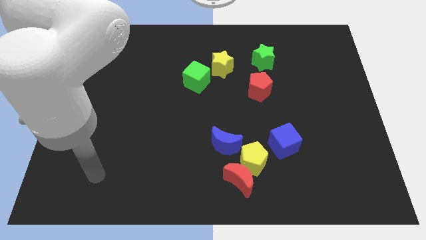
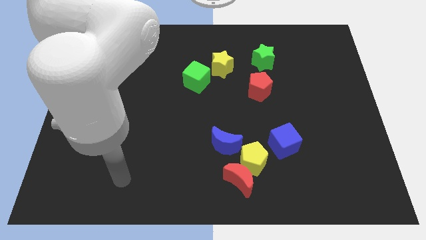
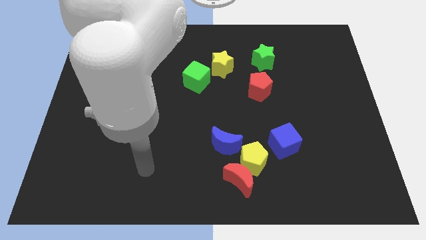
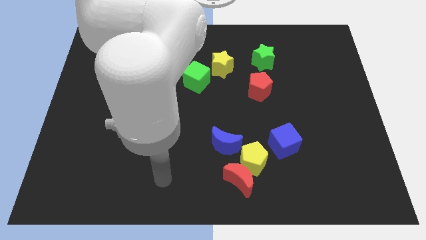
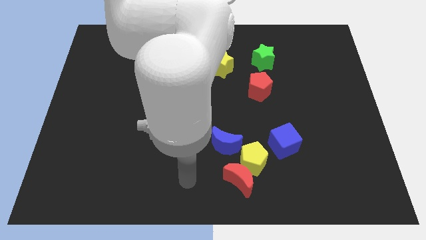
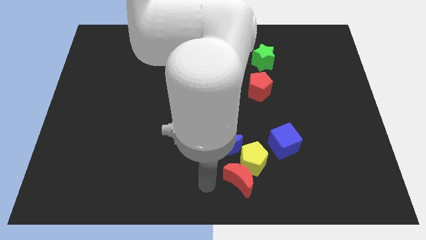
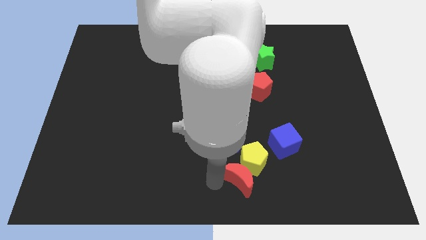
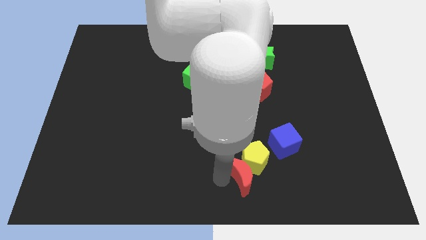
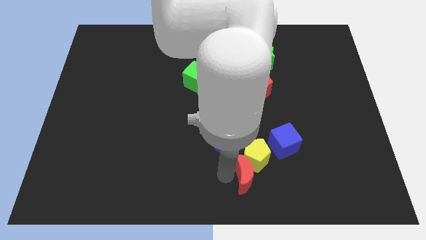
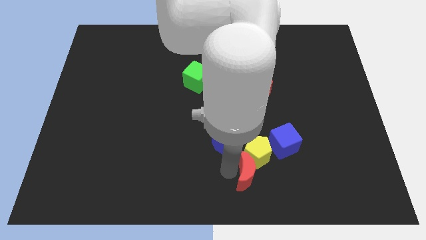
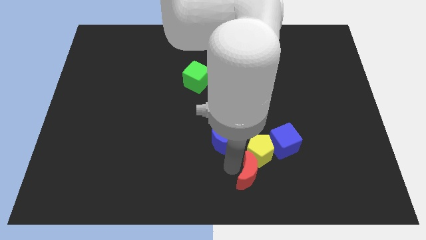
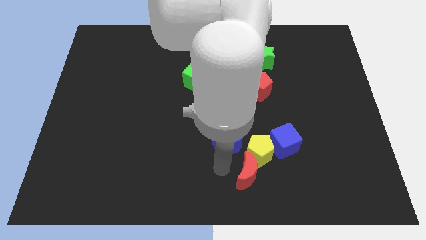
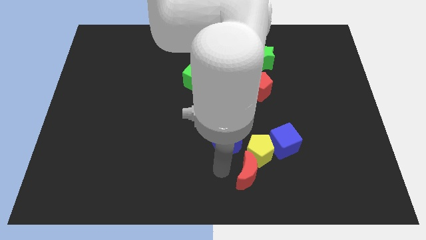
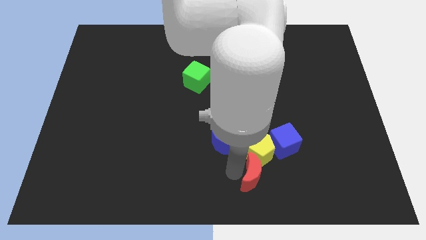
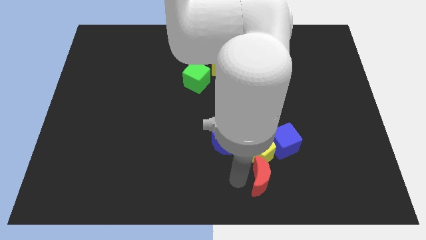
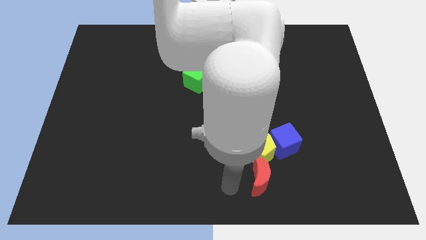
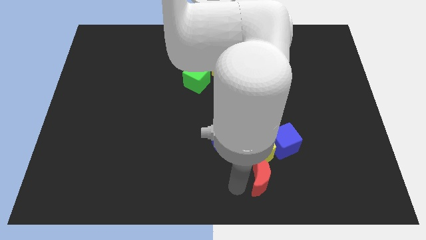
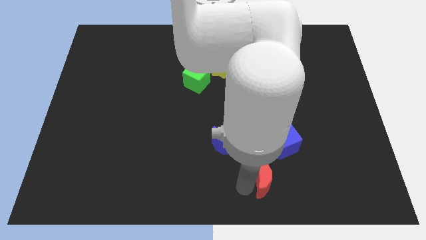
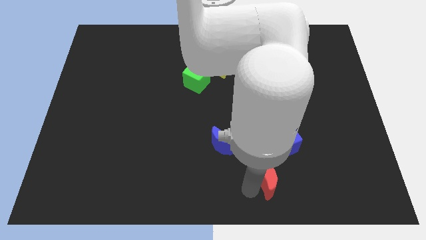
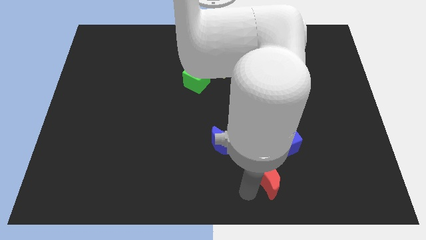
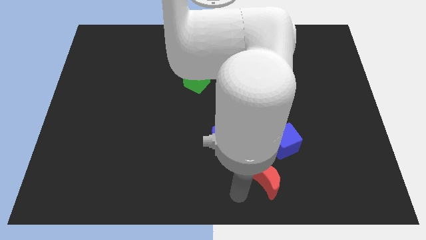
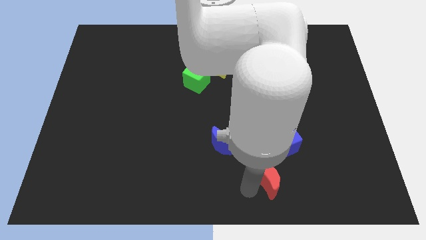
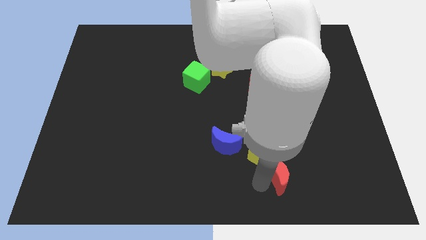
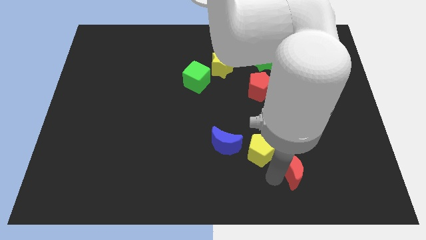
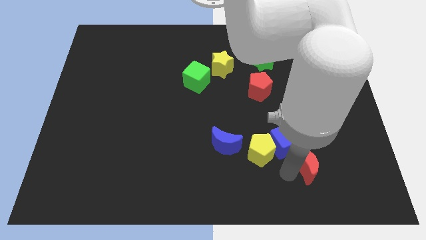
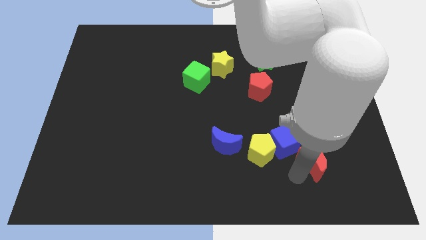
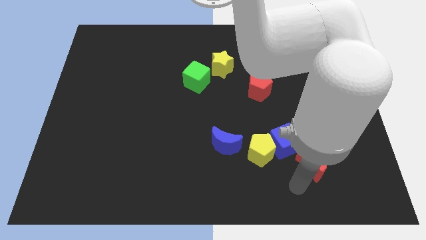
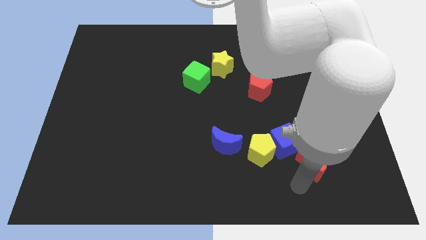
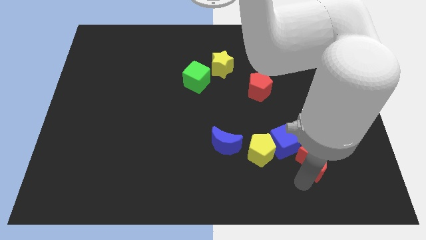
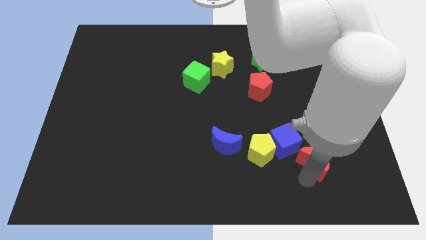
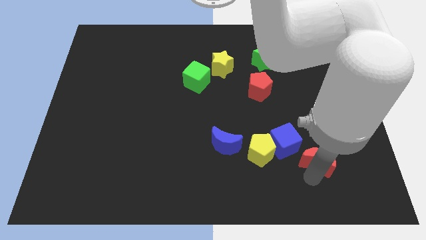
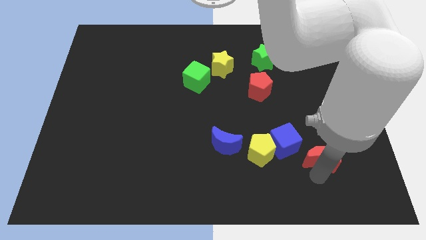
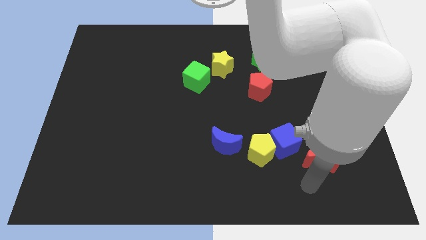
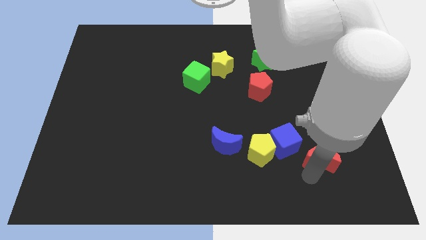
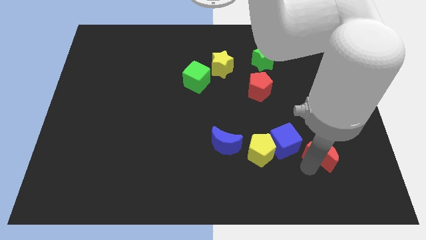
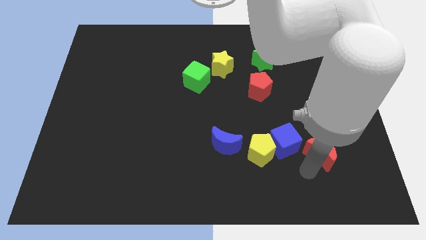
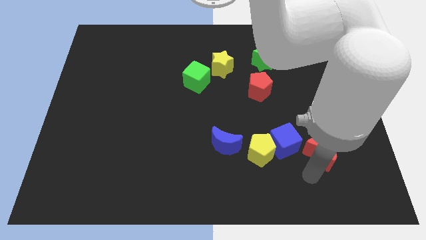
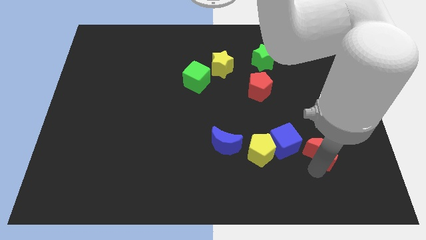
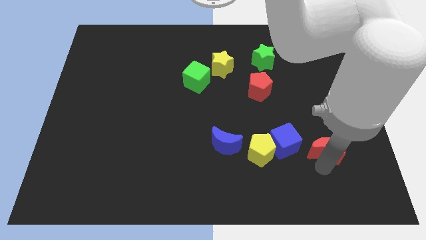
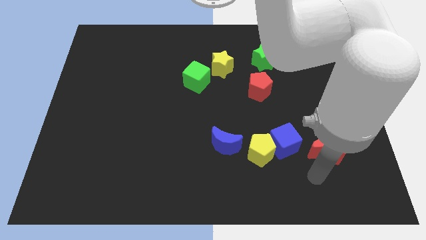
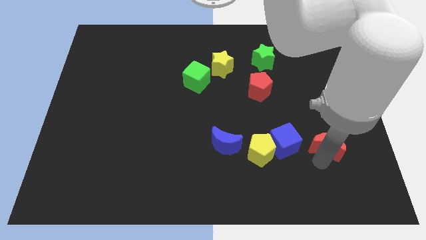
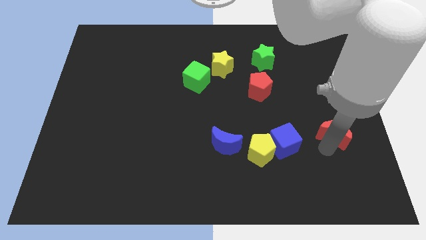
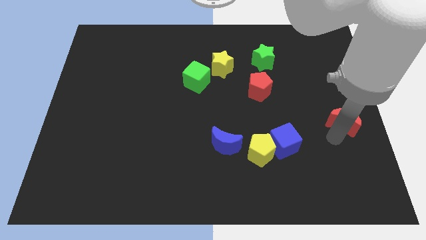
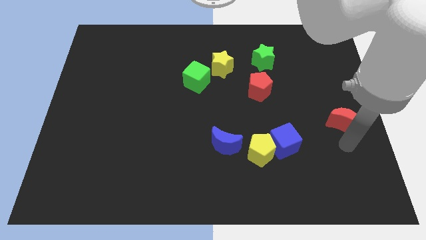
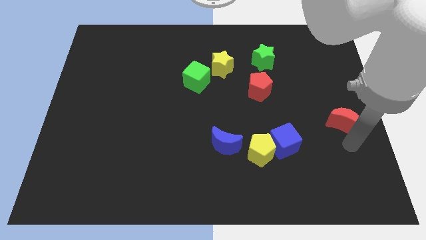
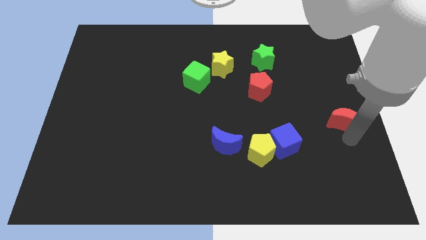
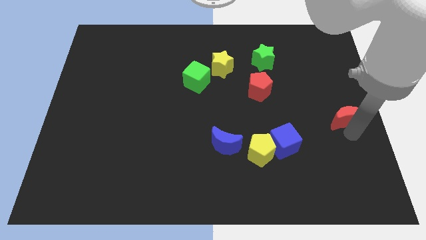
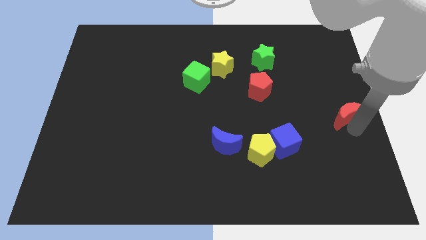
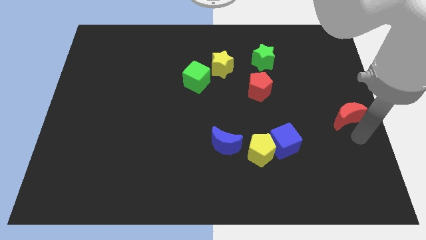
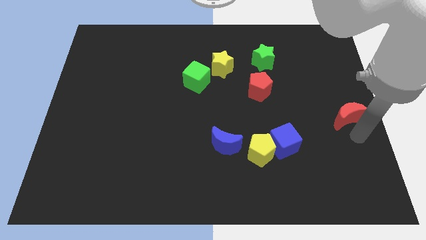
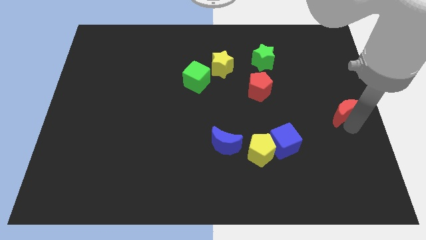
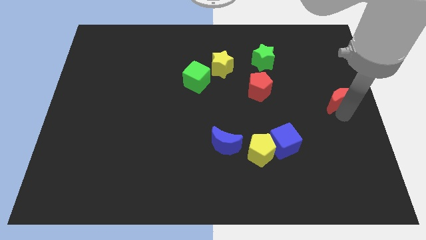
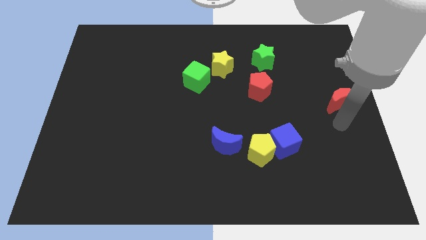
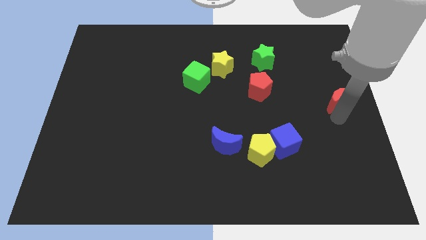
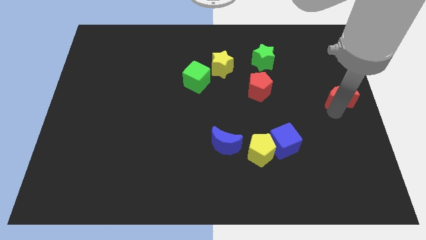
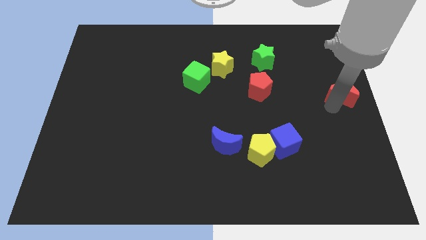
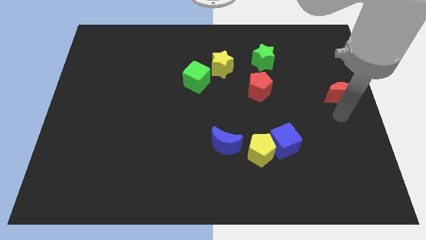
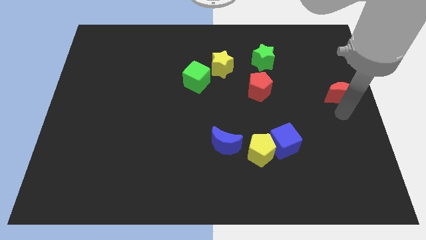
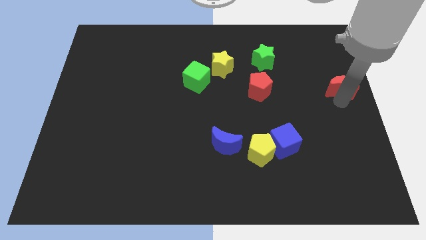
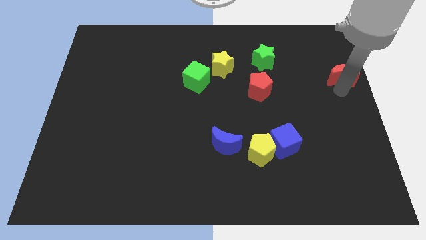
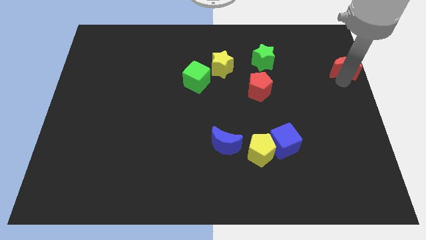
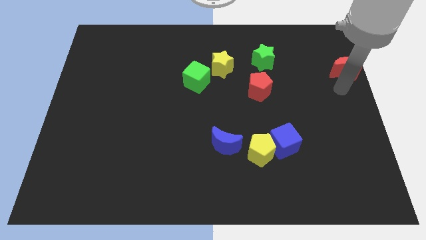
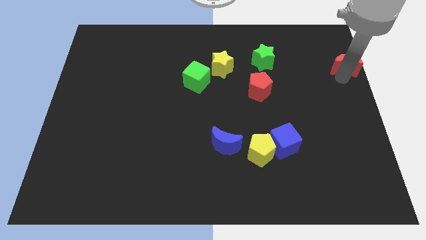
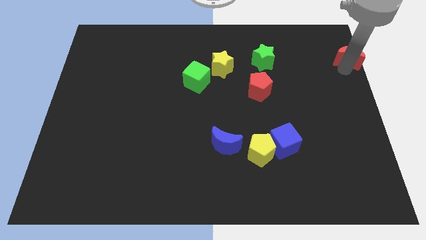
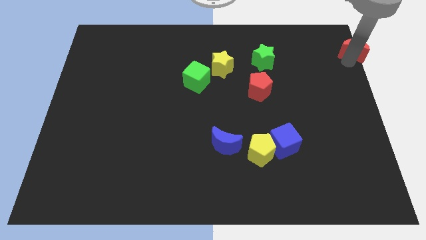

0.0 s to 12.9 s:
move the red moon to the top right corner
